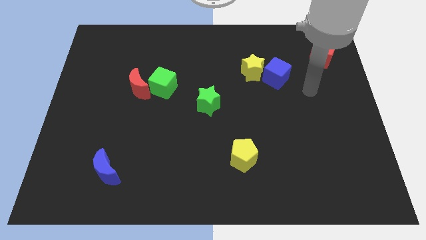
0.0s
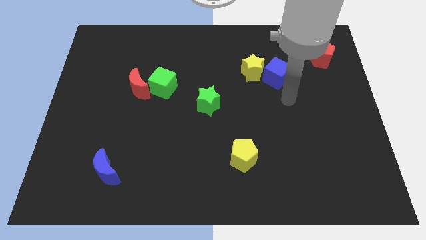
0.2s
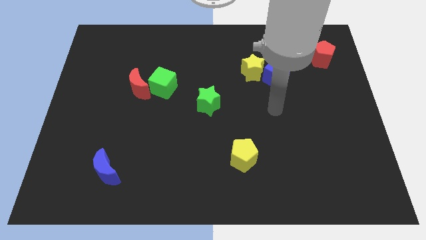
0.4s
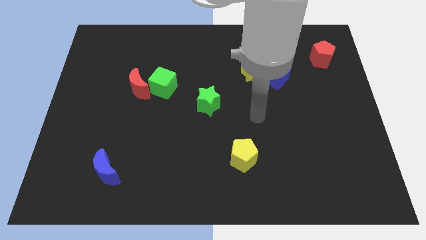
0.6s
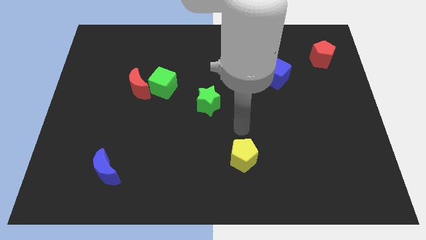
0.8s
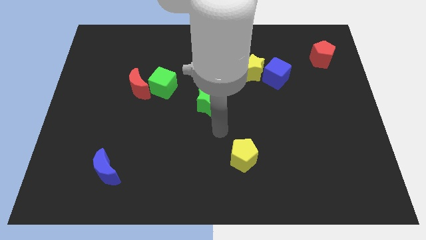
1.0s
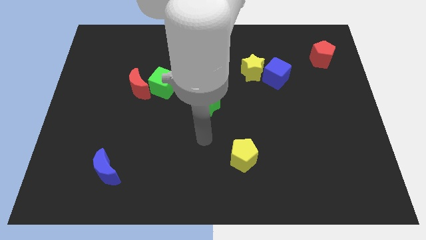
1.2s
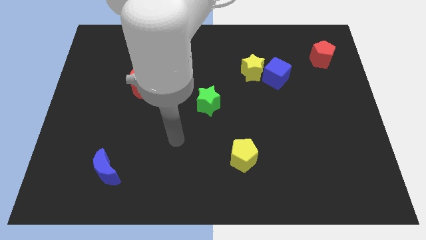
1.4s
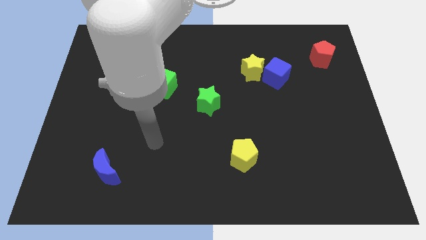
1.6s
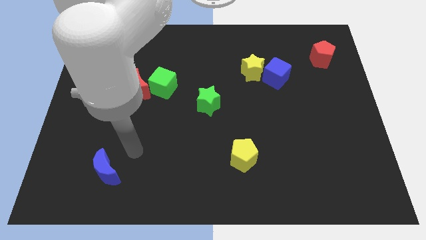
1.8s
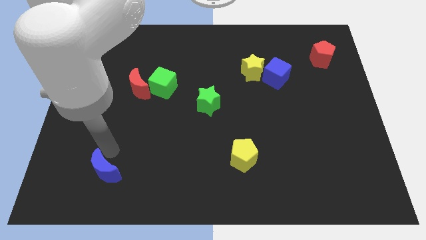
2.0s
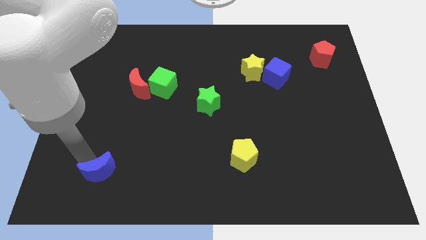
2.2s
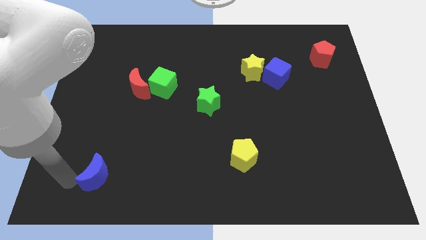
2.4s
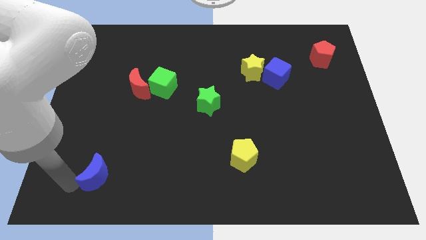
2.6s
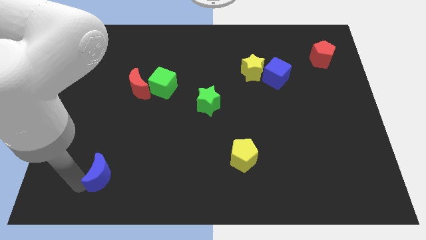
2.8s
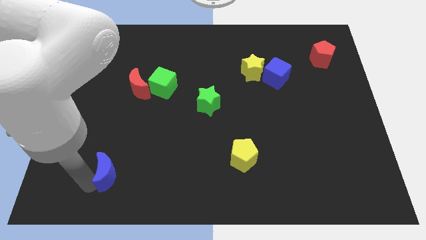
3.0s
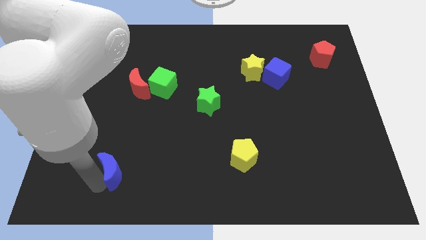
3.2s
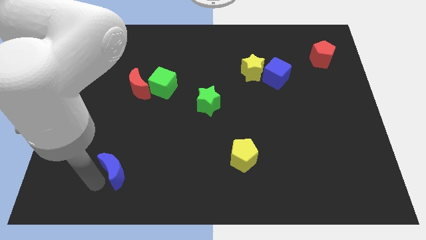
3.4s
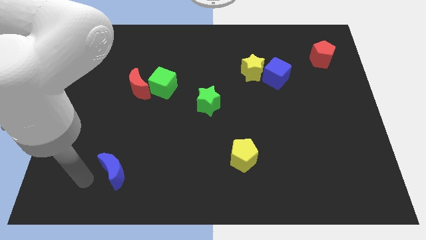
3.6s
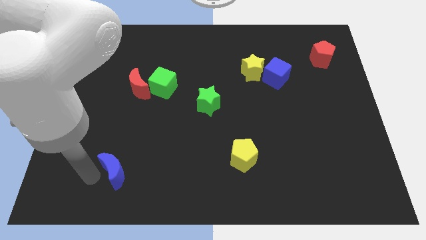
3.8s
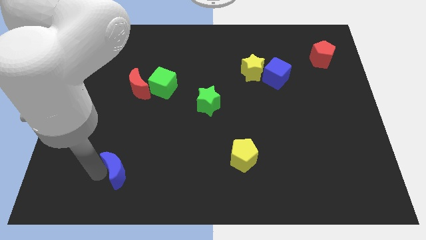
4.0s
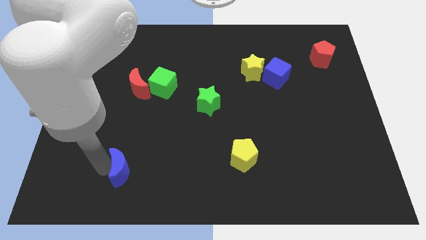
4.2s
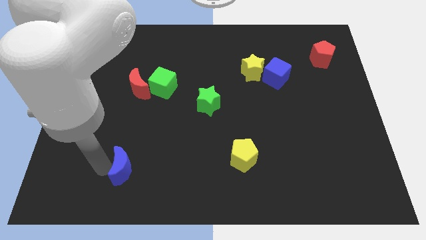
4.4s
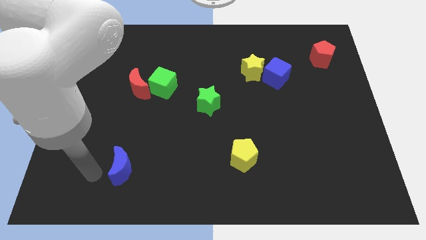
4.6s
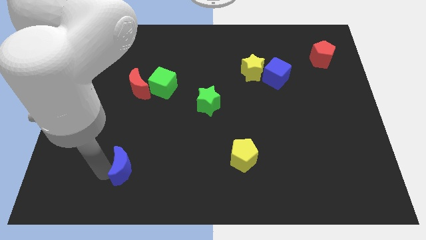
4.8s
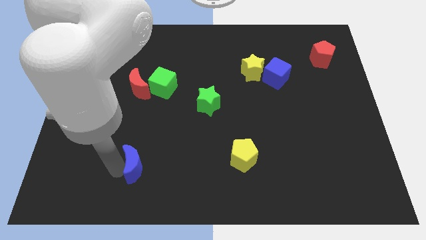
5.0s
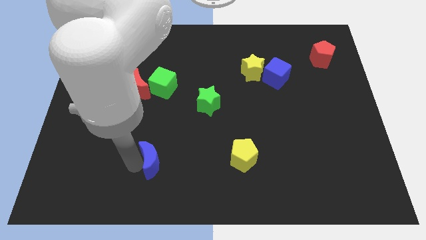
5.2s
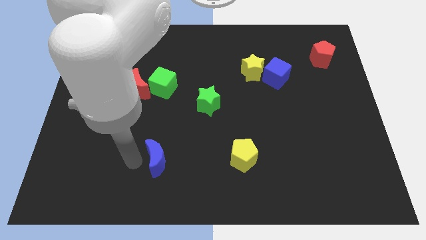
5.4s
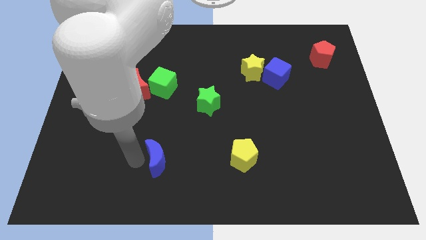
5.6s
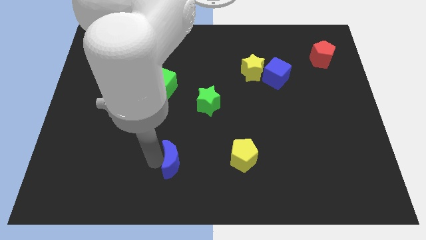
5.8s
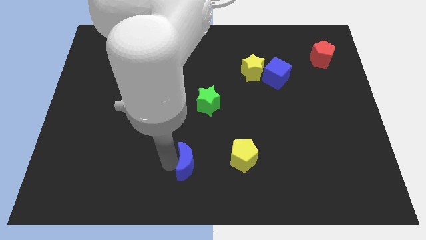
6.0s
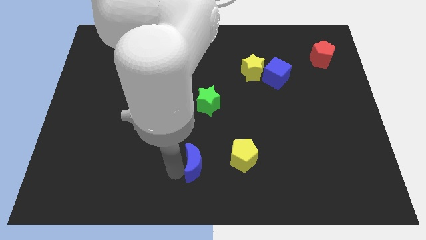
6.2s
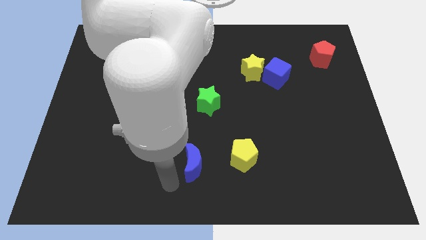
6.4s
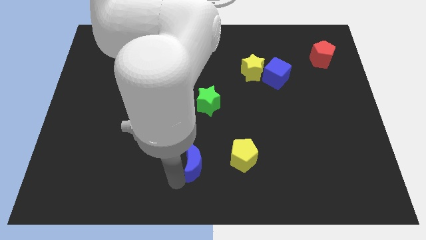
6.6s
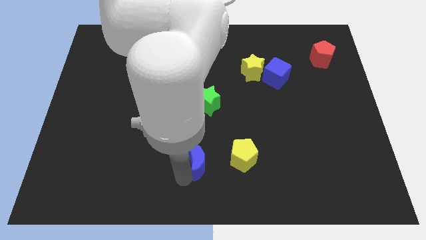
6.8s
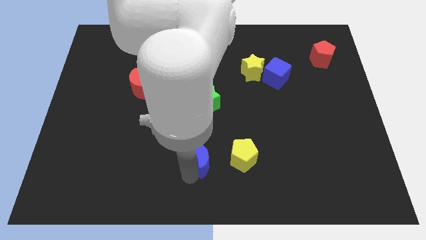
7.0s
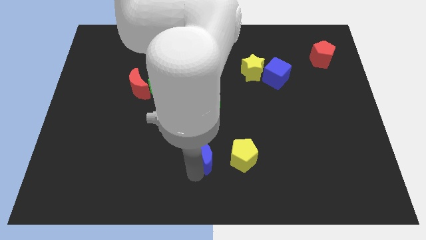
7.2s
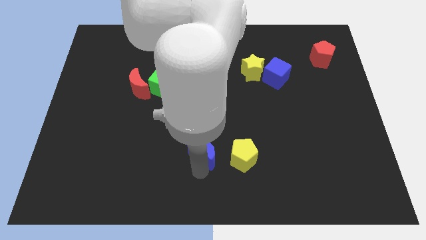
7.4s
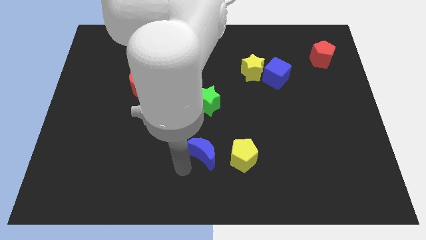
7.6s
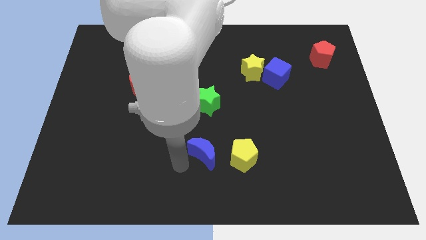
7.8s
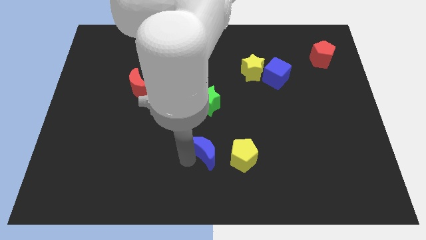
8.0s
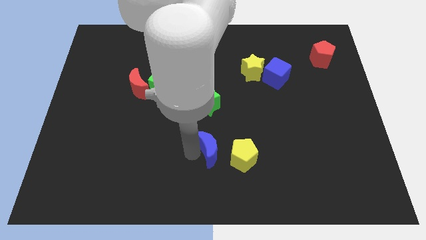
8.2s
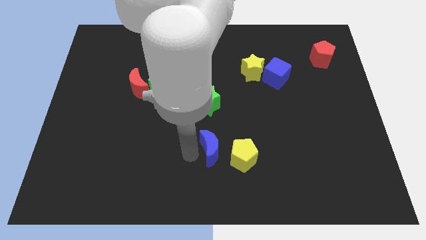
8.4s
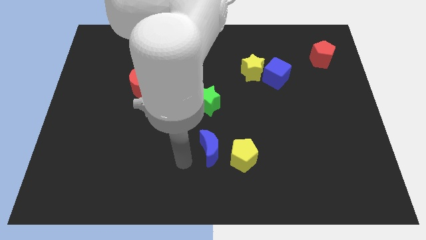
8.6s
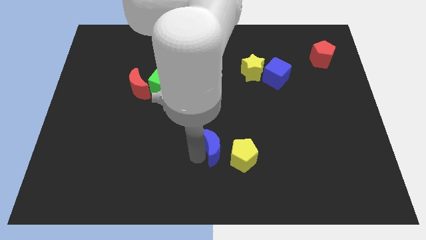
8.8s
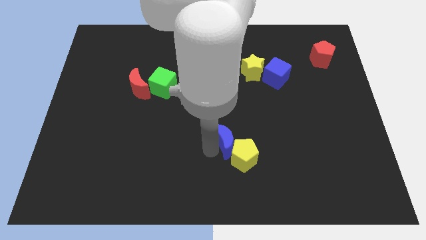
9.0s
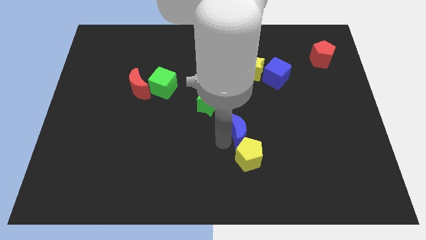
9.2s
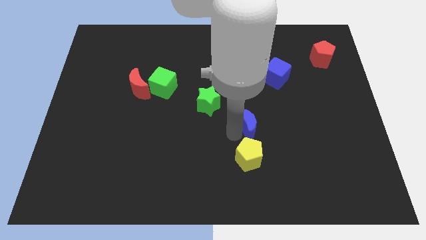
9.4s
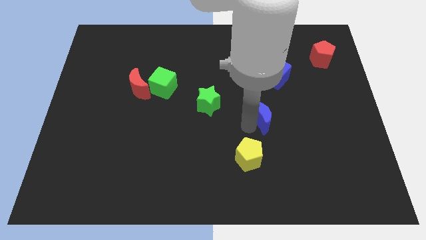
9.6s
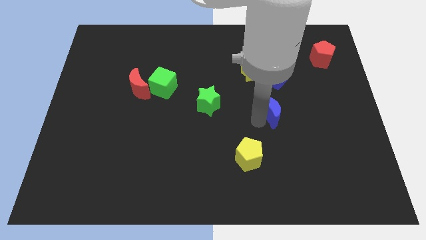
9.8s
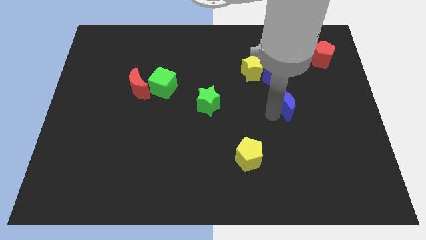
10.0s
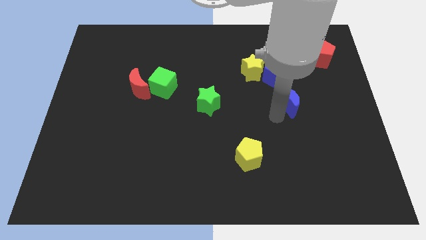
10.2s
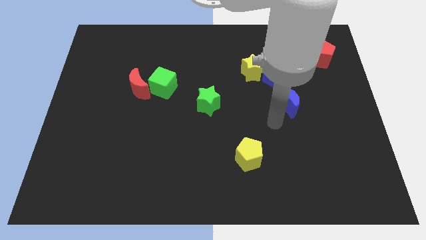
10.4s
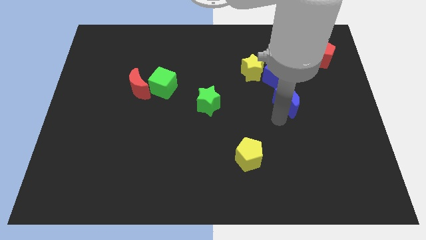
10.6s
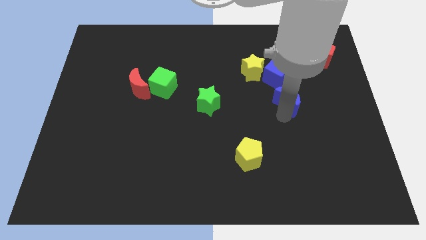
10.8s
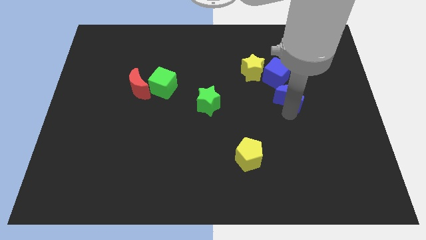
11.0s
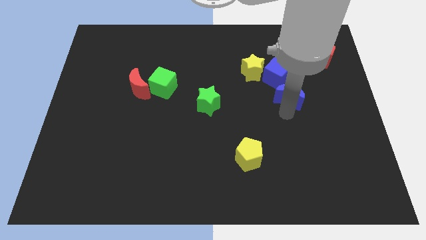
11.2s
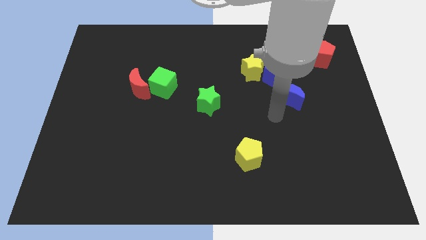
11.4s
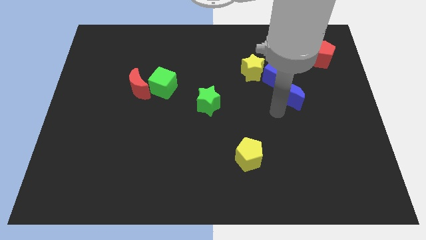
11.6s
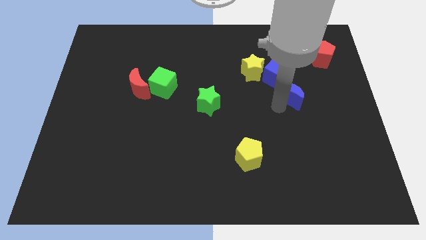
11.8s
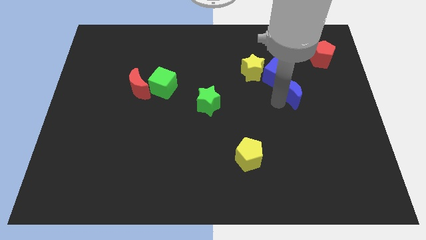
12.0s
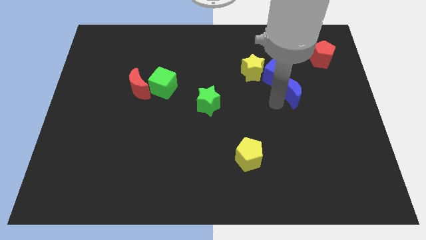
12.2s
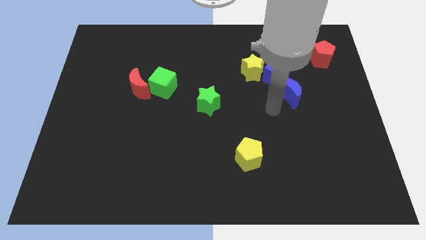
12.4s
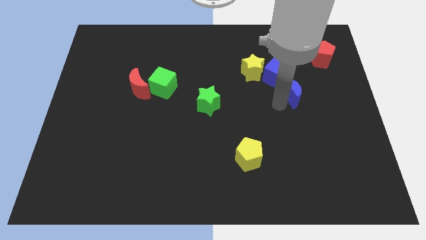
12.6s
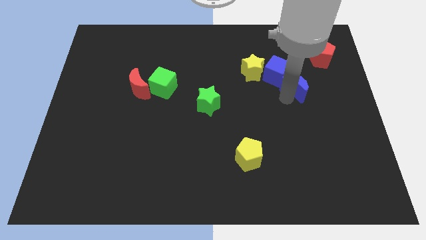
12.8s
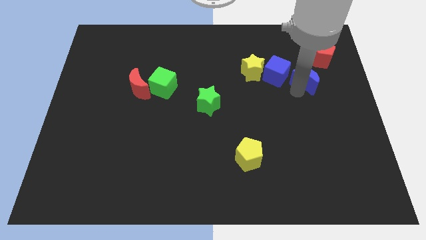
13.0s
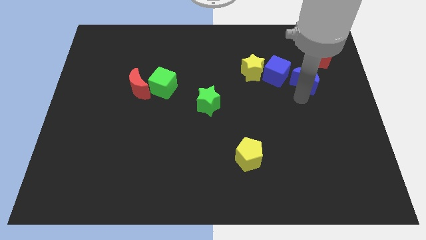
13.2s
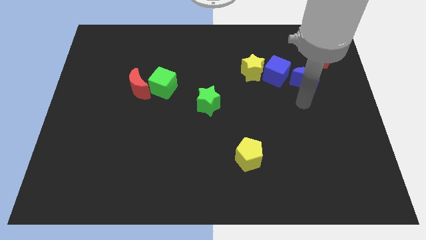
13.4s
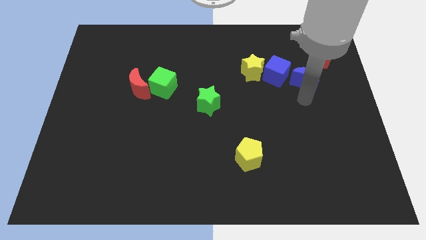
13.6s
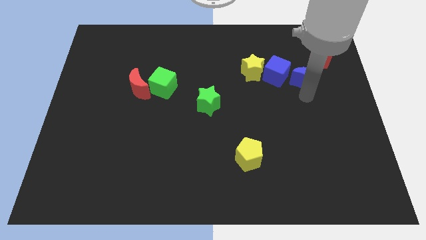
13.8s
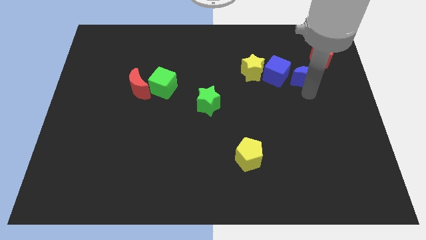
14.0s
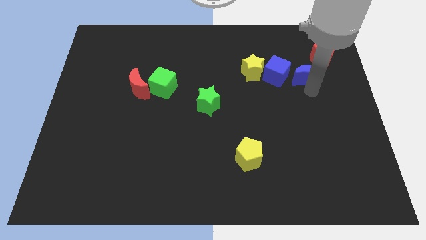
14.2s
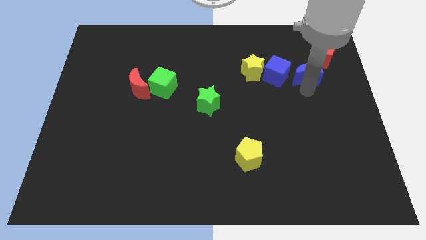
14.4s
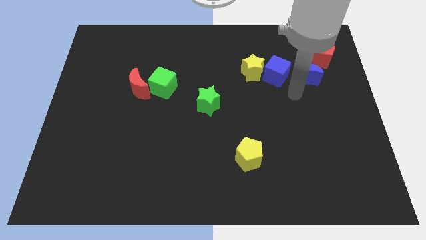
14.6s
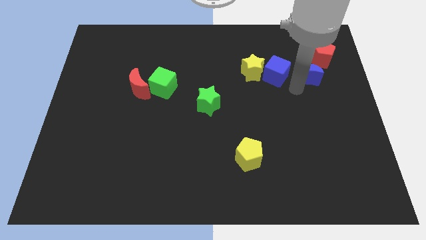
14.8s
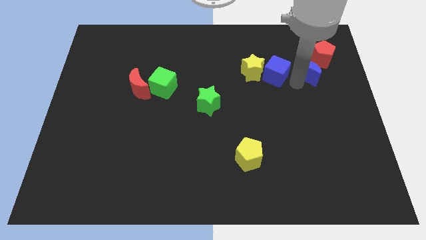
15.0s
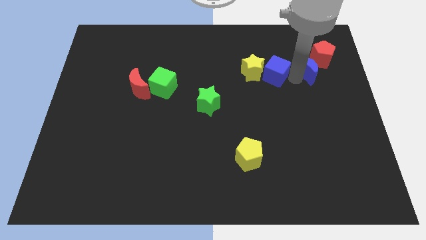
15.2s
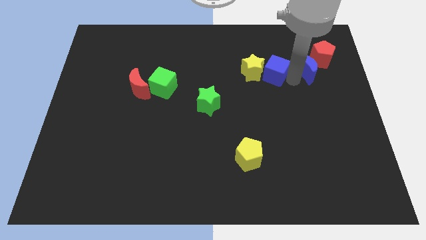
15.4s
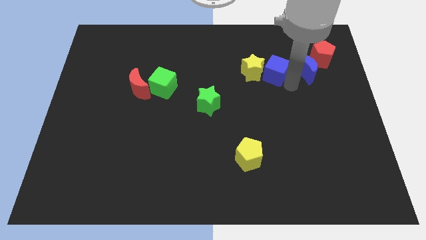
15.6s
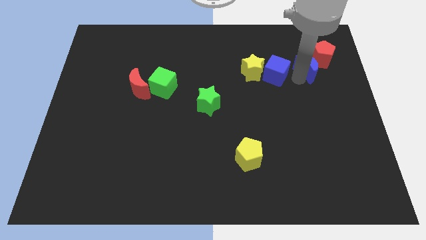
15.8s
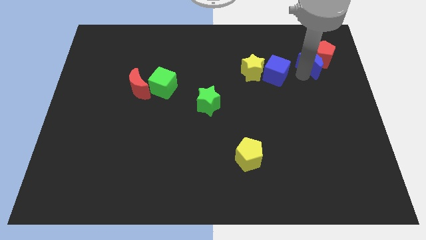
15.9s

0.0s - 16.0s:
move the blue moon close to the red pentagon
